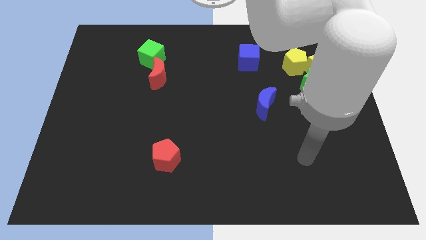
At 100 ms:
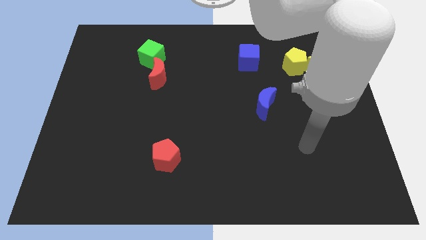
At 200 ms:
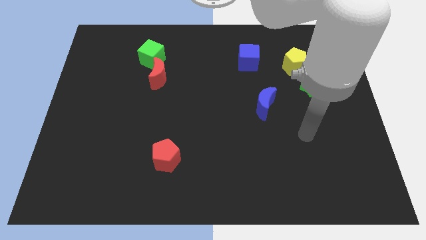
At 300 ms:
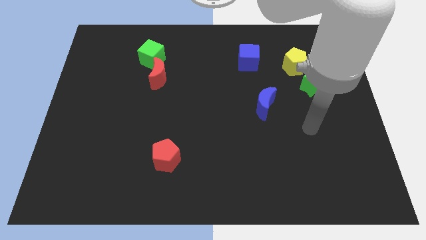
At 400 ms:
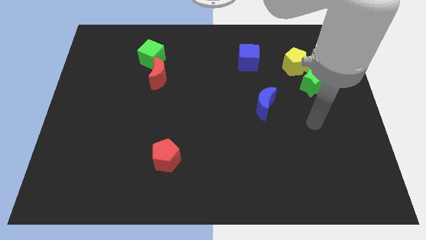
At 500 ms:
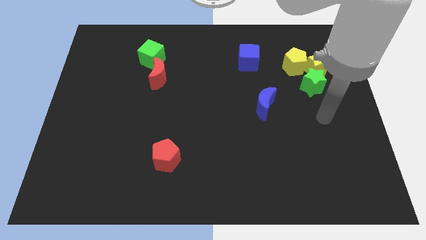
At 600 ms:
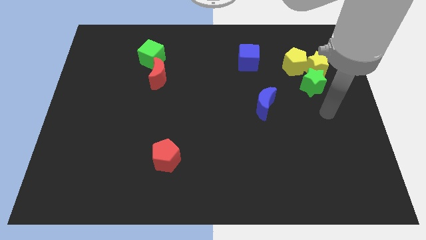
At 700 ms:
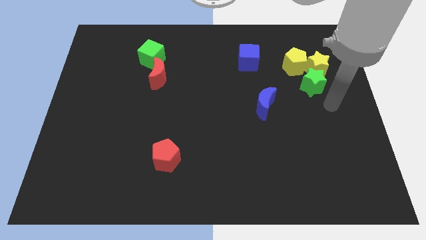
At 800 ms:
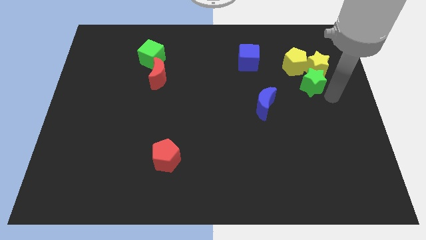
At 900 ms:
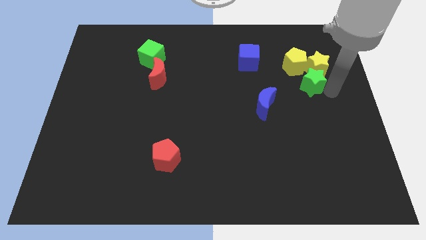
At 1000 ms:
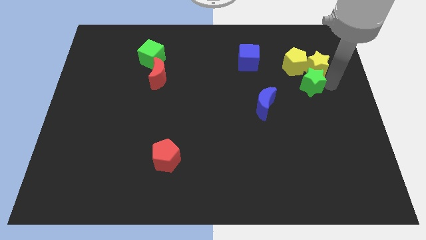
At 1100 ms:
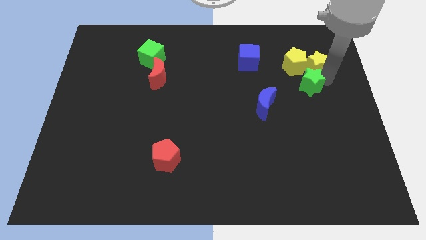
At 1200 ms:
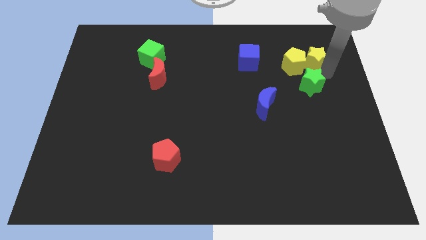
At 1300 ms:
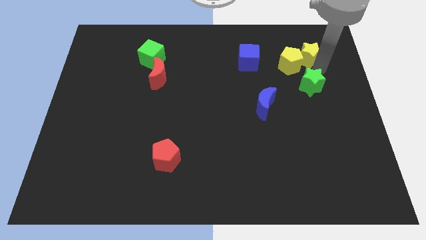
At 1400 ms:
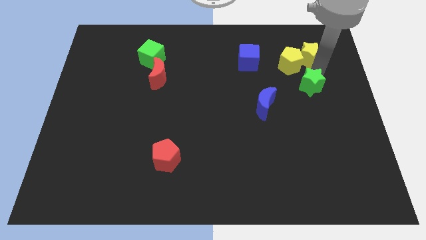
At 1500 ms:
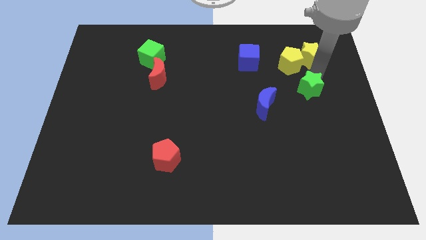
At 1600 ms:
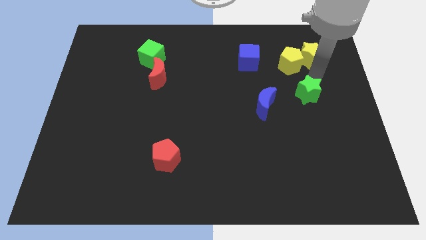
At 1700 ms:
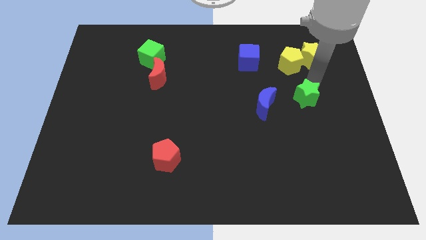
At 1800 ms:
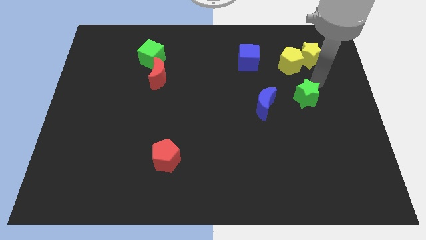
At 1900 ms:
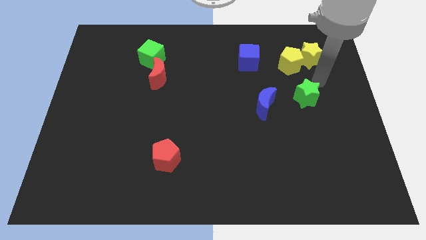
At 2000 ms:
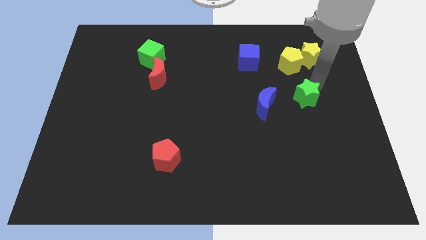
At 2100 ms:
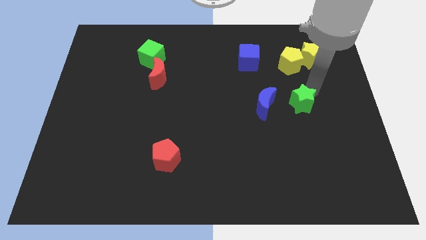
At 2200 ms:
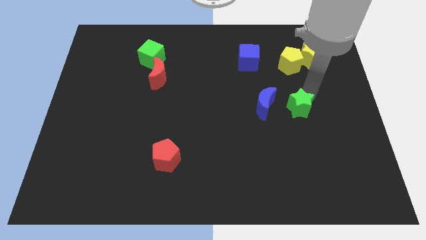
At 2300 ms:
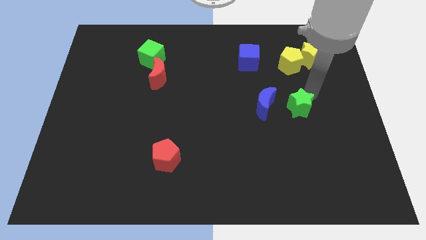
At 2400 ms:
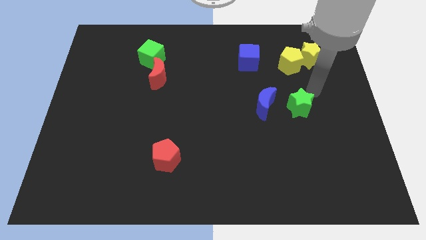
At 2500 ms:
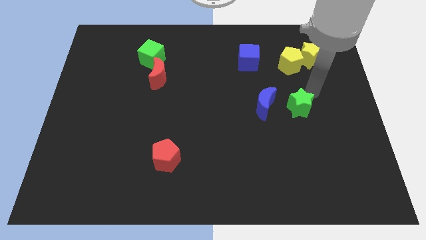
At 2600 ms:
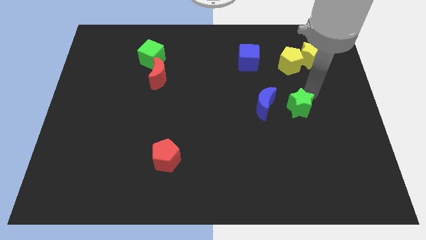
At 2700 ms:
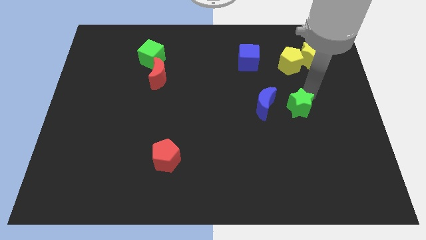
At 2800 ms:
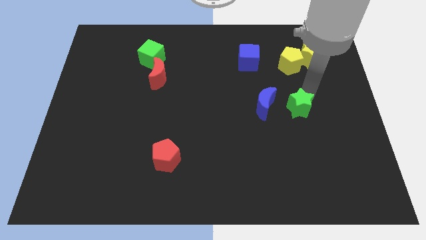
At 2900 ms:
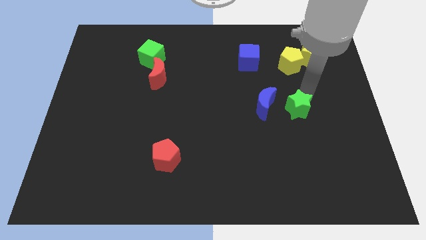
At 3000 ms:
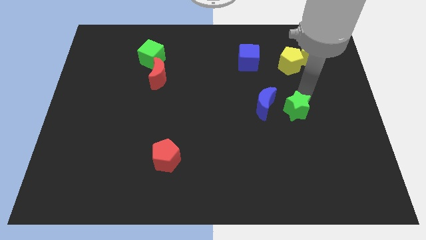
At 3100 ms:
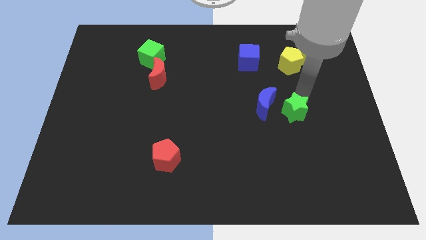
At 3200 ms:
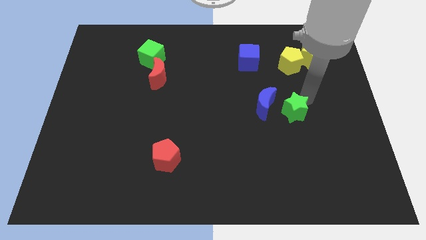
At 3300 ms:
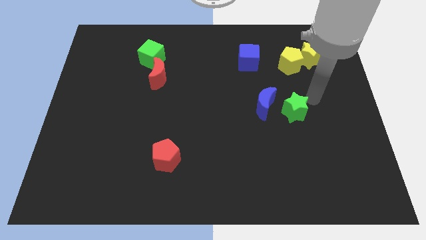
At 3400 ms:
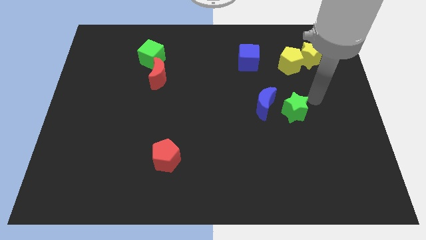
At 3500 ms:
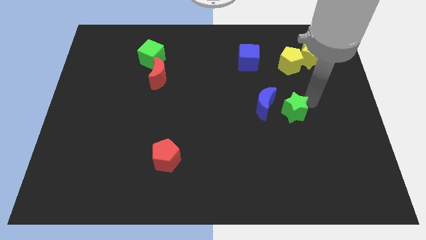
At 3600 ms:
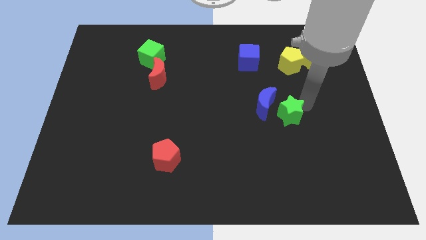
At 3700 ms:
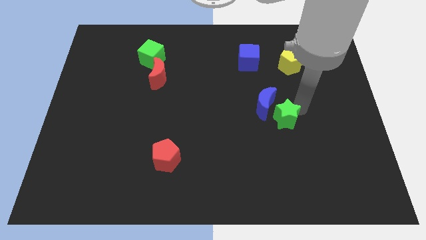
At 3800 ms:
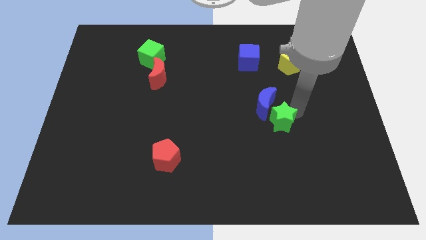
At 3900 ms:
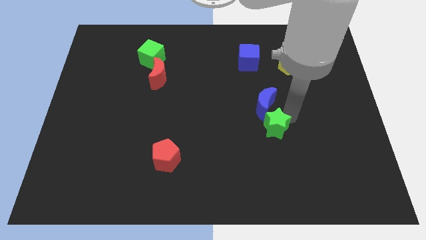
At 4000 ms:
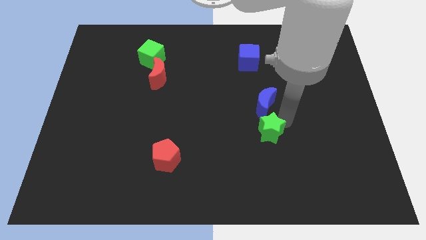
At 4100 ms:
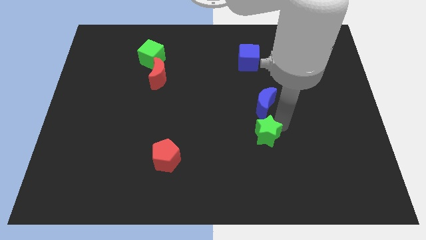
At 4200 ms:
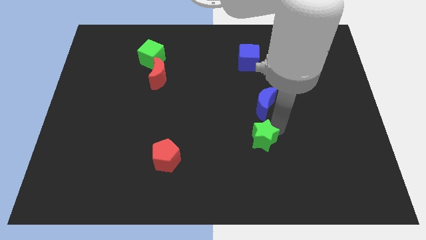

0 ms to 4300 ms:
move the green star diagonally downwards and left

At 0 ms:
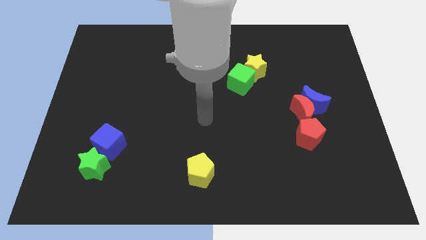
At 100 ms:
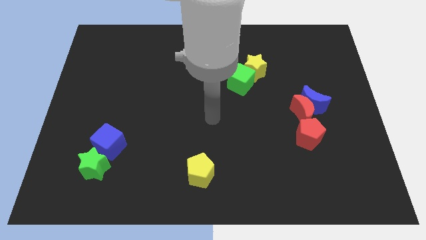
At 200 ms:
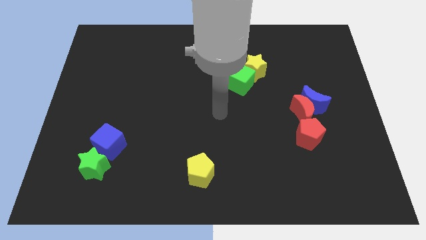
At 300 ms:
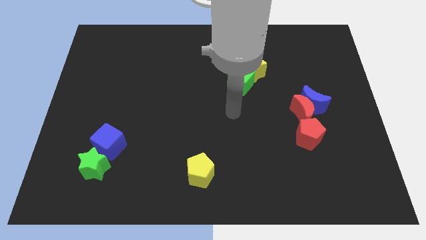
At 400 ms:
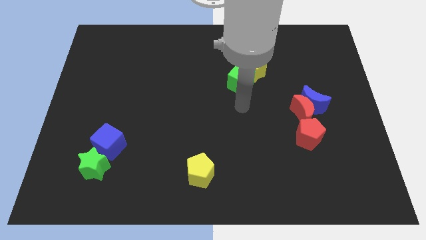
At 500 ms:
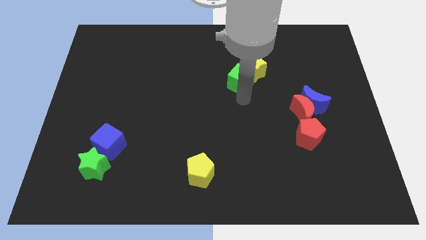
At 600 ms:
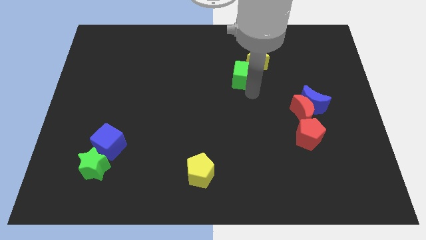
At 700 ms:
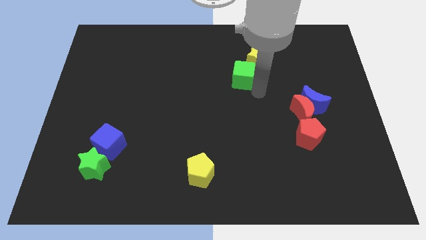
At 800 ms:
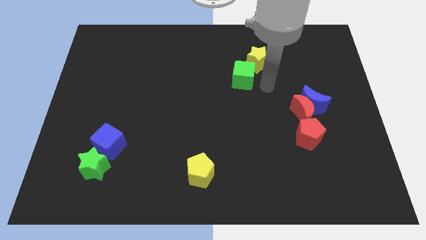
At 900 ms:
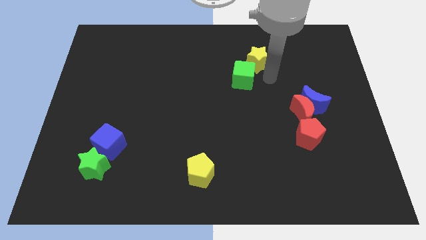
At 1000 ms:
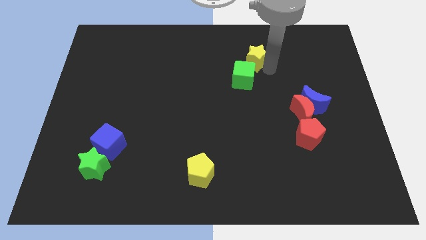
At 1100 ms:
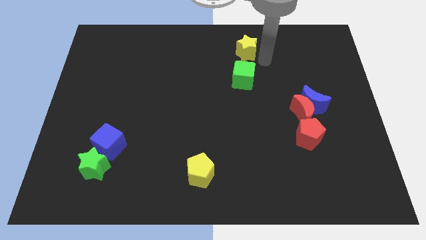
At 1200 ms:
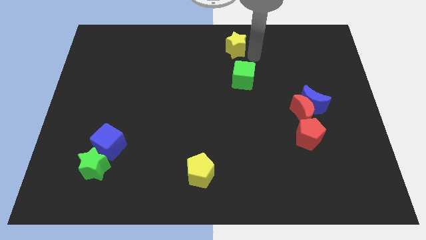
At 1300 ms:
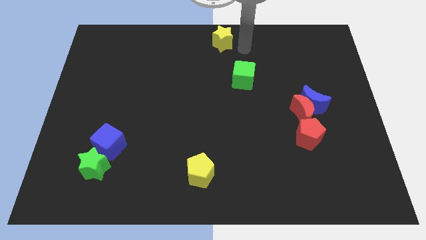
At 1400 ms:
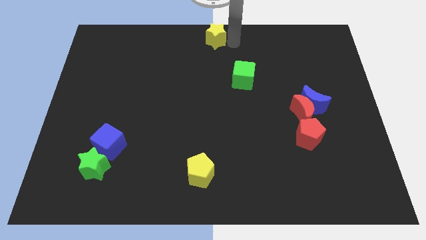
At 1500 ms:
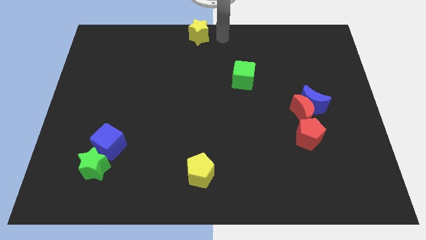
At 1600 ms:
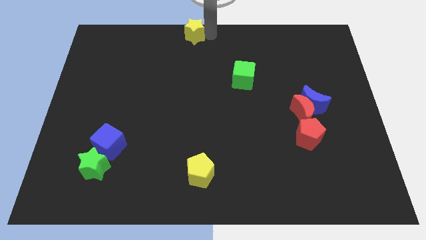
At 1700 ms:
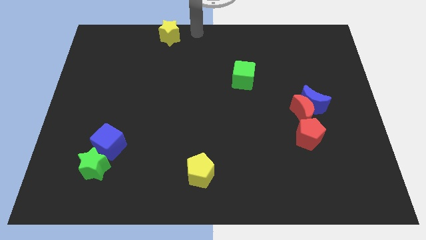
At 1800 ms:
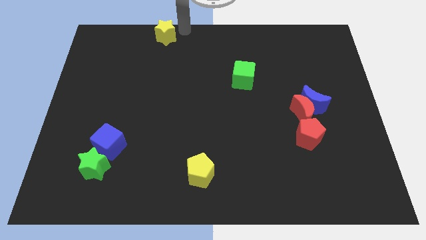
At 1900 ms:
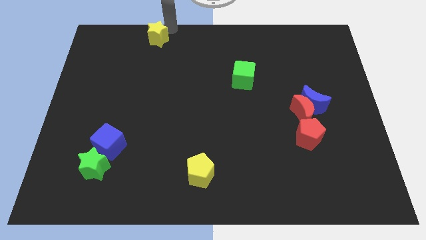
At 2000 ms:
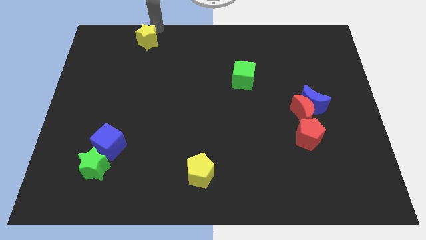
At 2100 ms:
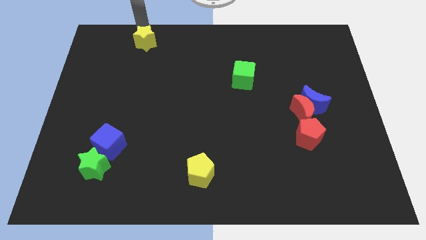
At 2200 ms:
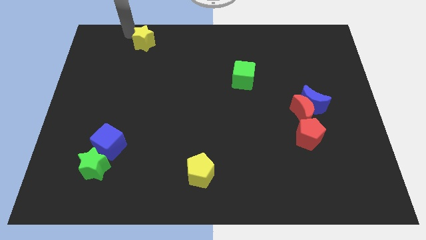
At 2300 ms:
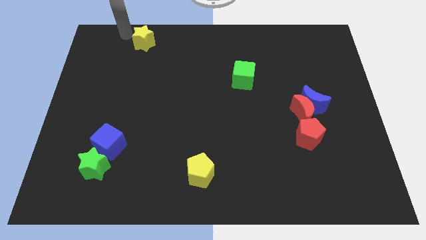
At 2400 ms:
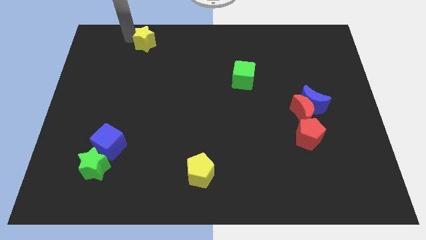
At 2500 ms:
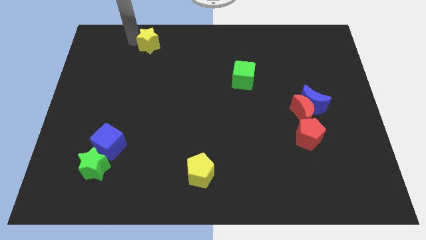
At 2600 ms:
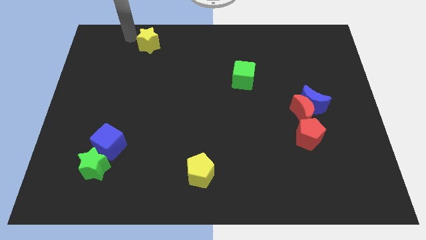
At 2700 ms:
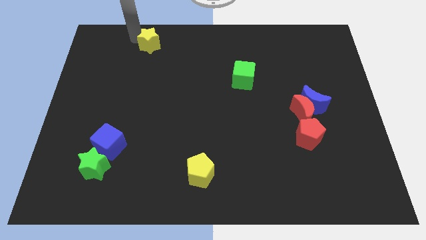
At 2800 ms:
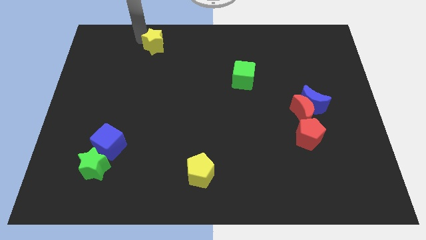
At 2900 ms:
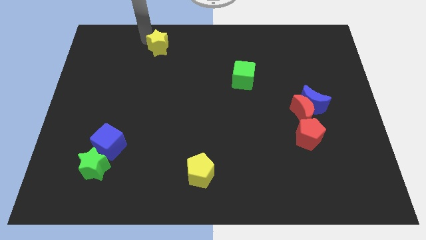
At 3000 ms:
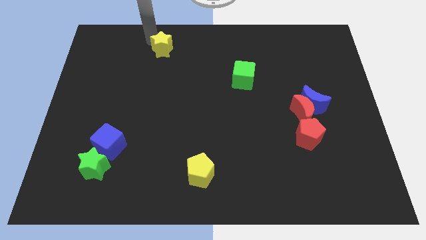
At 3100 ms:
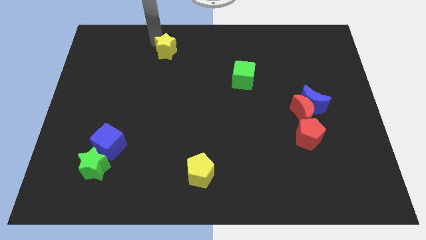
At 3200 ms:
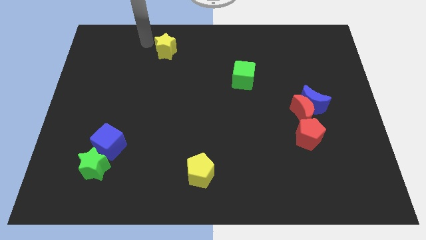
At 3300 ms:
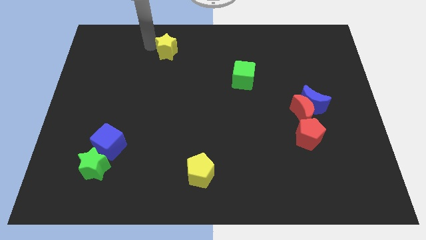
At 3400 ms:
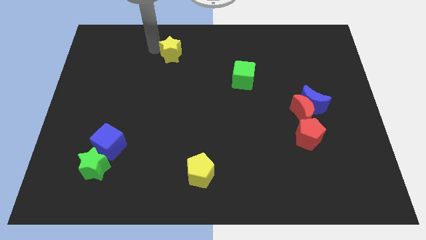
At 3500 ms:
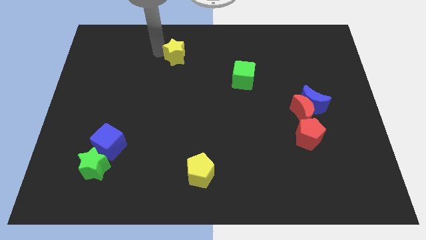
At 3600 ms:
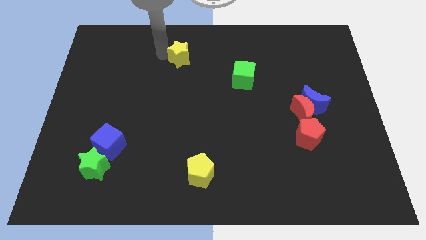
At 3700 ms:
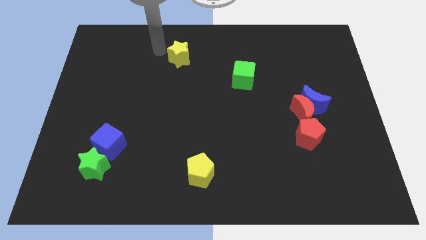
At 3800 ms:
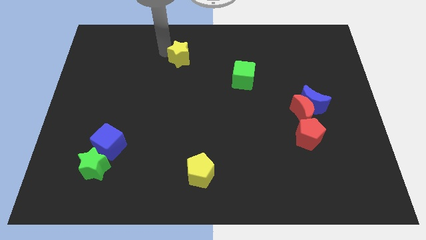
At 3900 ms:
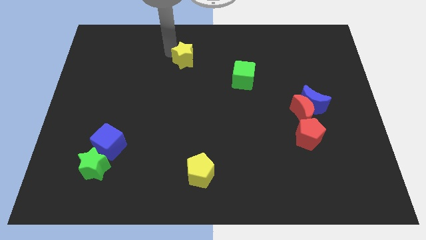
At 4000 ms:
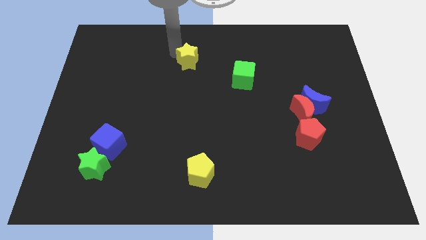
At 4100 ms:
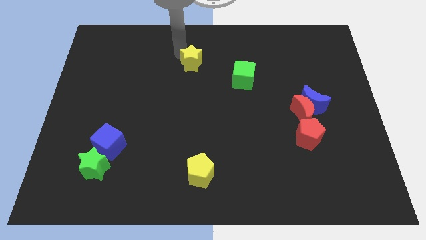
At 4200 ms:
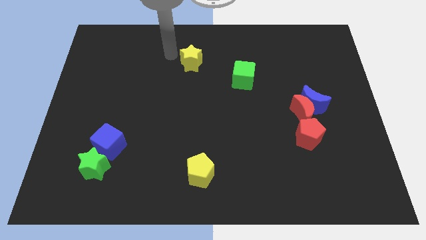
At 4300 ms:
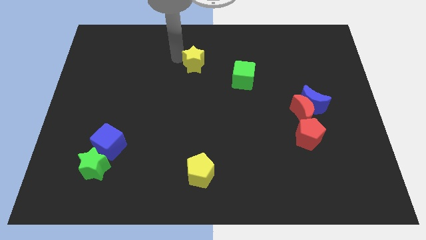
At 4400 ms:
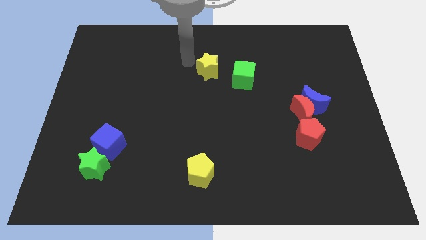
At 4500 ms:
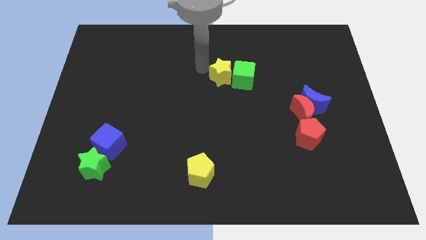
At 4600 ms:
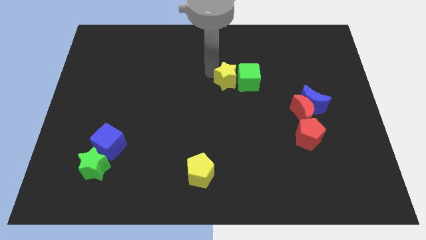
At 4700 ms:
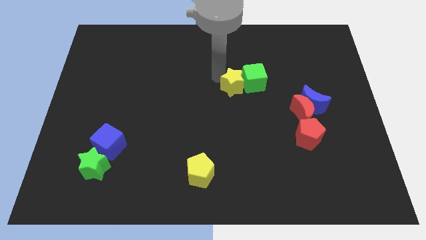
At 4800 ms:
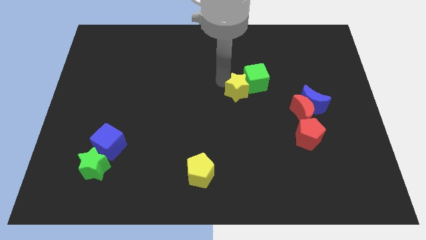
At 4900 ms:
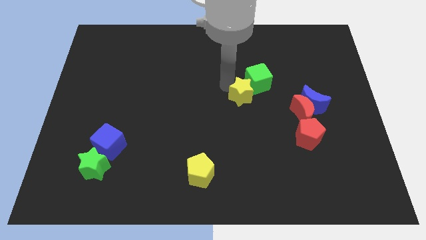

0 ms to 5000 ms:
slightly push the yellow star downwards
